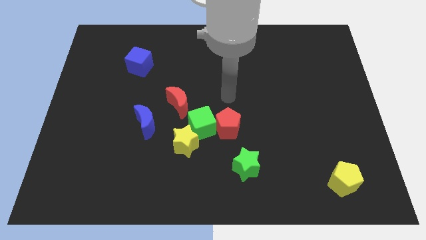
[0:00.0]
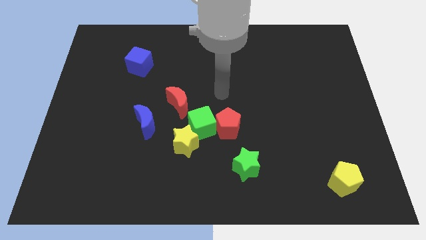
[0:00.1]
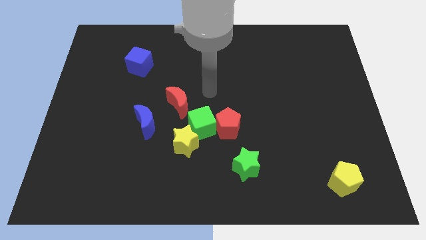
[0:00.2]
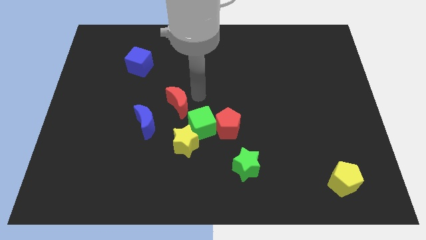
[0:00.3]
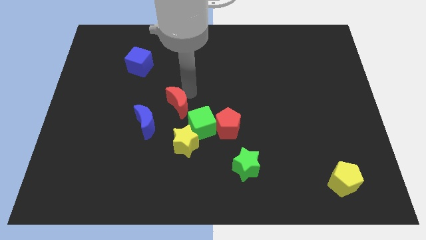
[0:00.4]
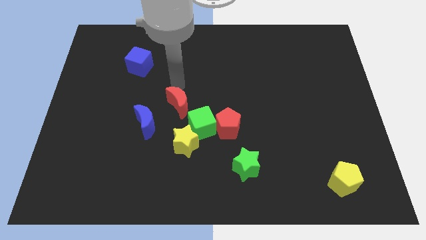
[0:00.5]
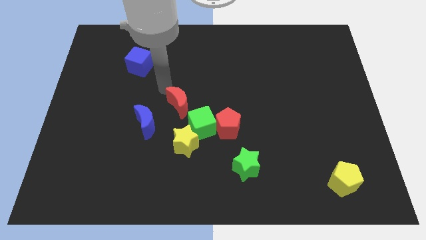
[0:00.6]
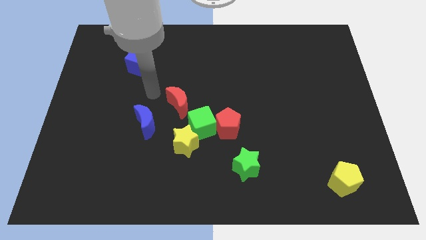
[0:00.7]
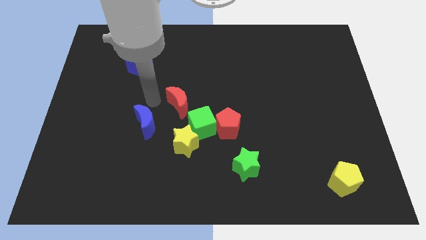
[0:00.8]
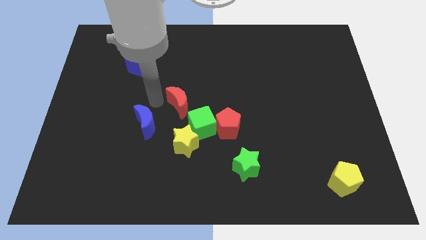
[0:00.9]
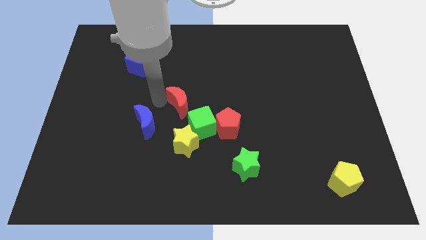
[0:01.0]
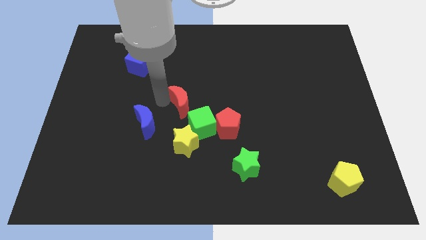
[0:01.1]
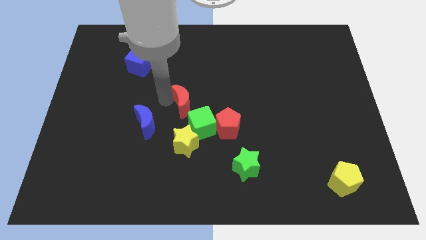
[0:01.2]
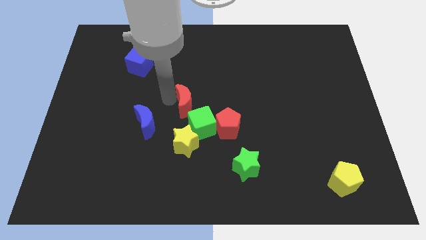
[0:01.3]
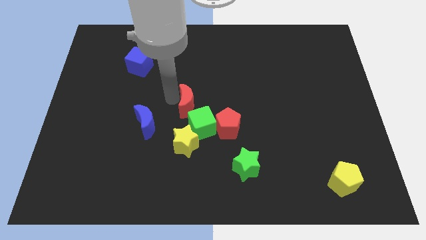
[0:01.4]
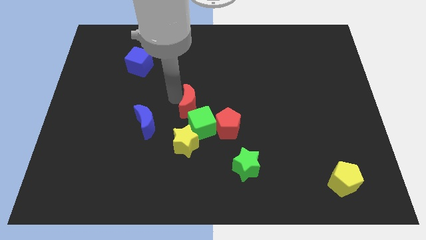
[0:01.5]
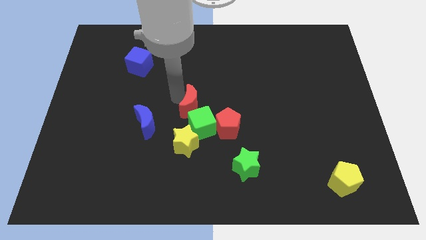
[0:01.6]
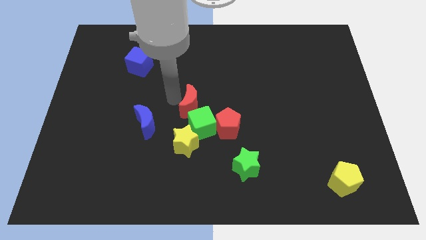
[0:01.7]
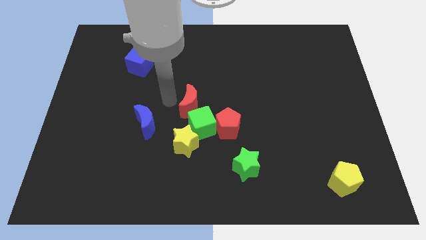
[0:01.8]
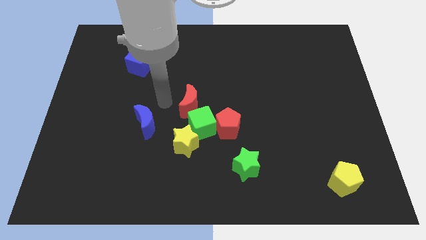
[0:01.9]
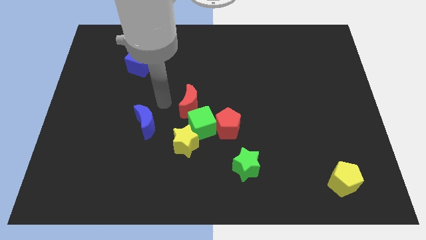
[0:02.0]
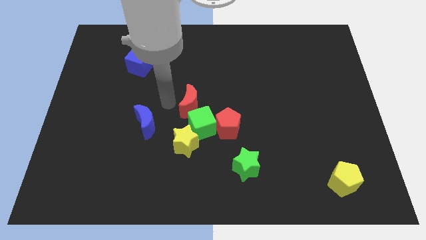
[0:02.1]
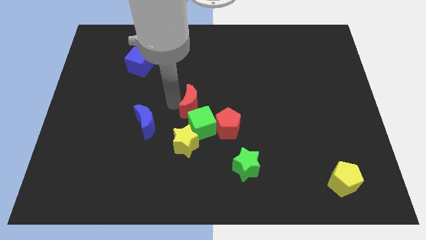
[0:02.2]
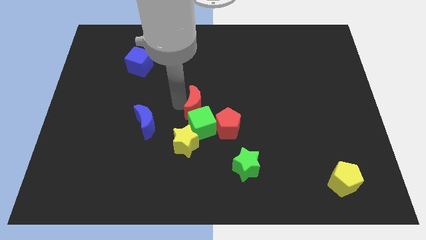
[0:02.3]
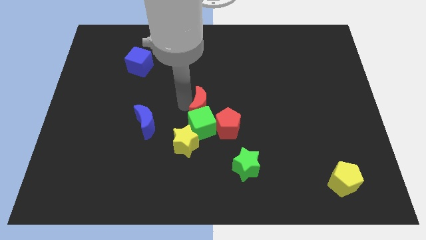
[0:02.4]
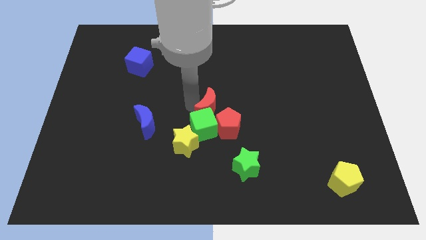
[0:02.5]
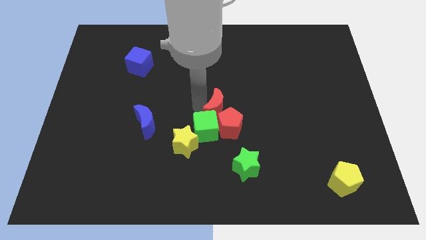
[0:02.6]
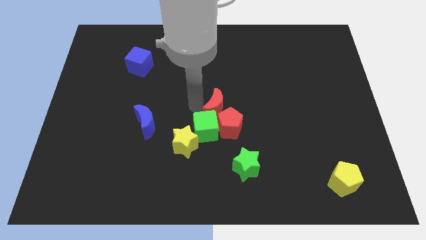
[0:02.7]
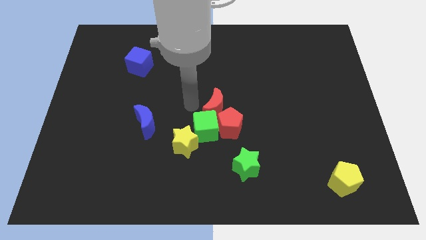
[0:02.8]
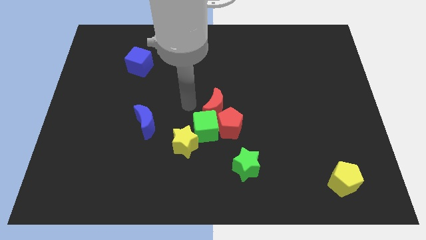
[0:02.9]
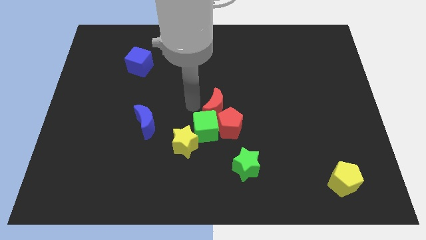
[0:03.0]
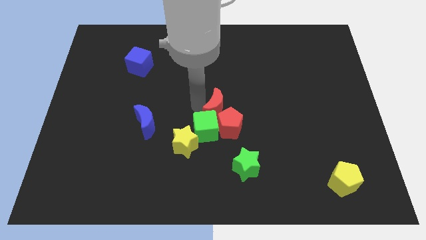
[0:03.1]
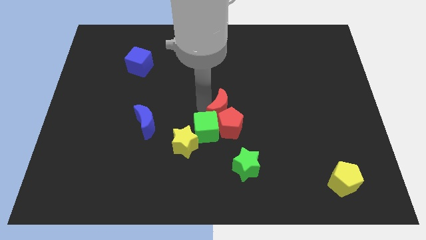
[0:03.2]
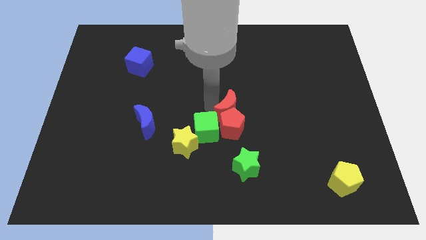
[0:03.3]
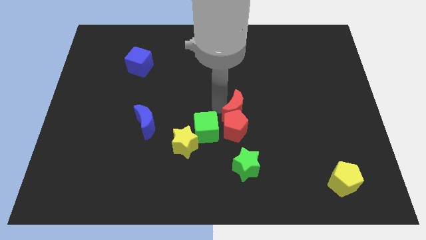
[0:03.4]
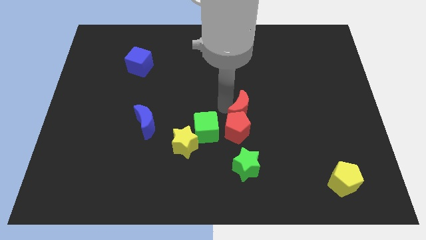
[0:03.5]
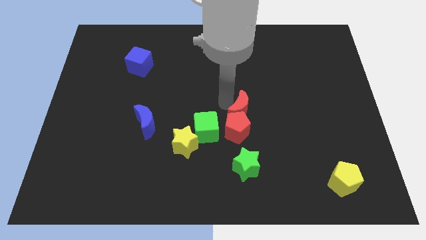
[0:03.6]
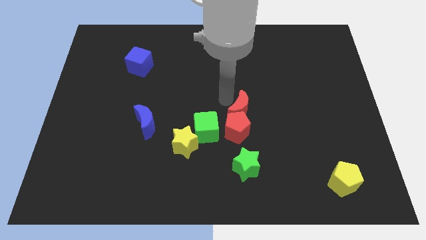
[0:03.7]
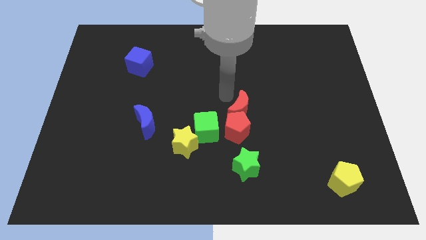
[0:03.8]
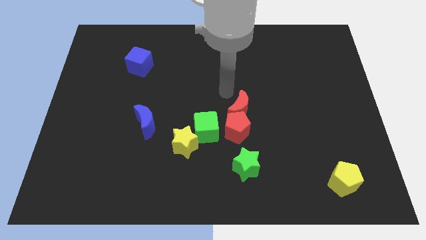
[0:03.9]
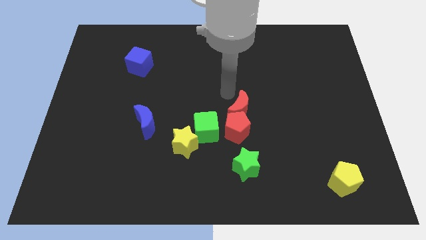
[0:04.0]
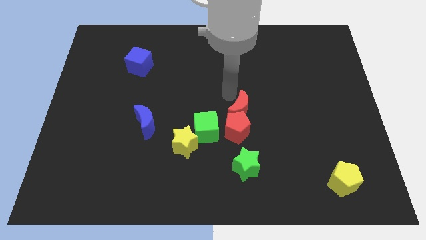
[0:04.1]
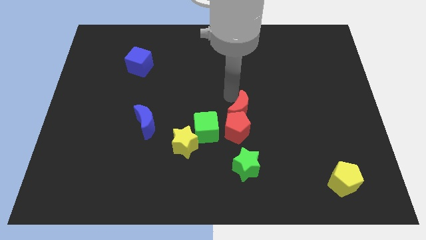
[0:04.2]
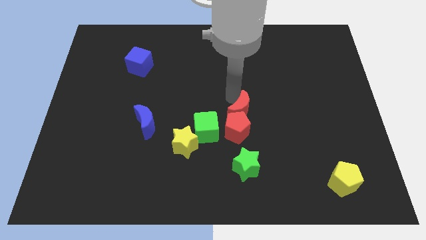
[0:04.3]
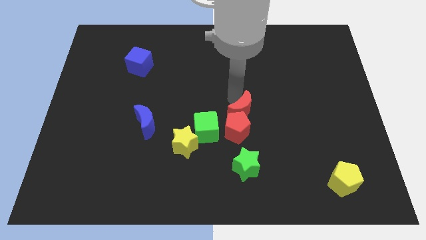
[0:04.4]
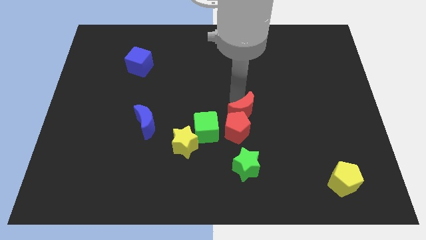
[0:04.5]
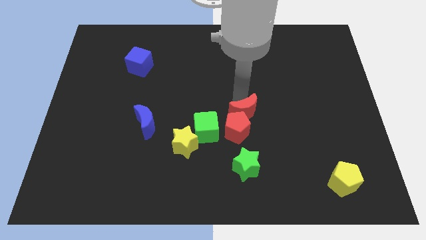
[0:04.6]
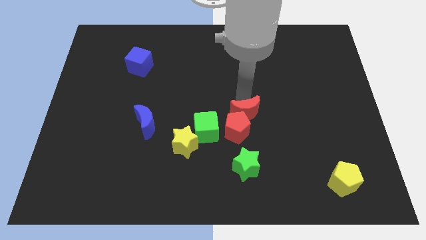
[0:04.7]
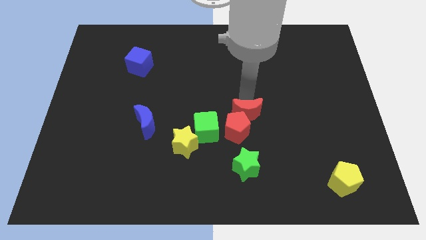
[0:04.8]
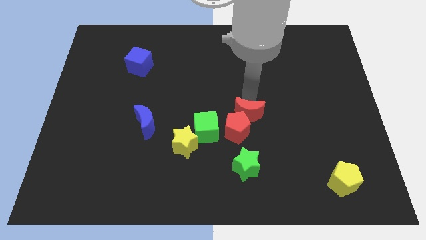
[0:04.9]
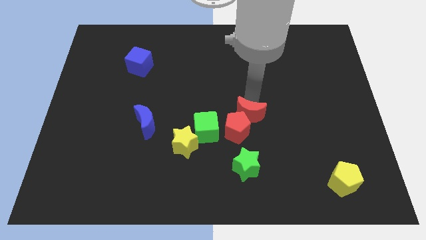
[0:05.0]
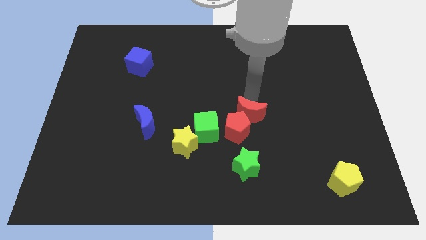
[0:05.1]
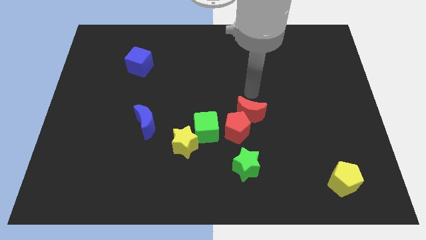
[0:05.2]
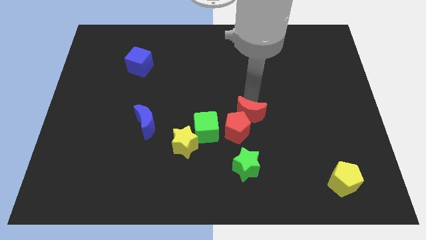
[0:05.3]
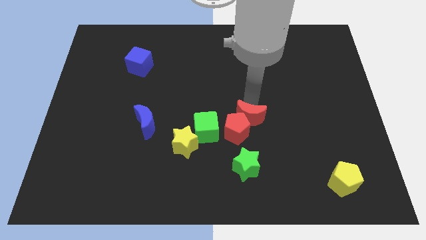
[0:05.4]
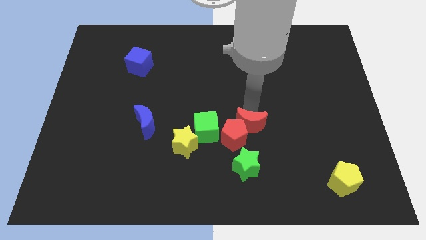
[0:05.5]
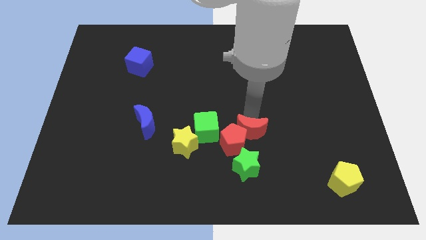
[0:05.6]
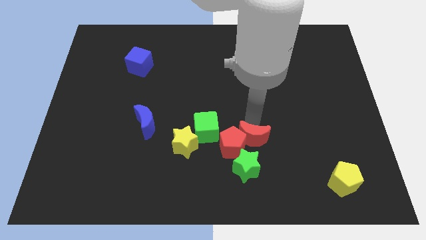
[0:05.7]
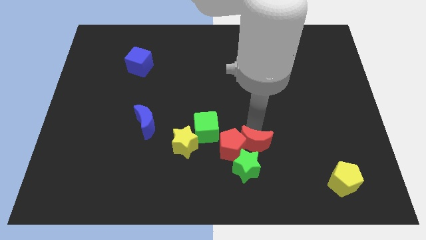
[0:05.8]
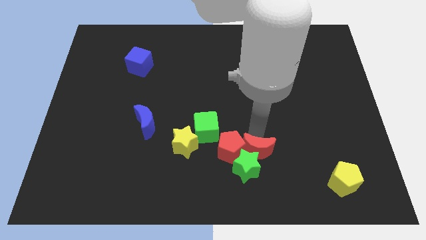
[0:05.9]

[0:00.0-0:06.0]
push the red moon towards the green star

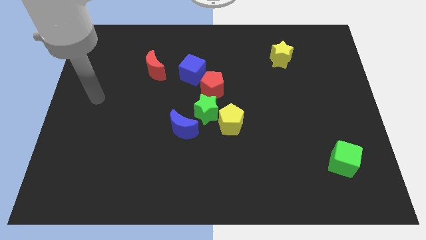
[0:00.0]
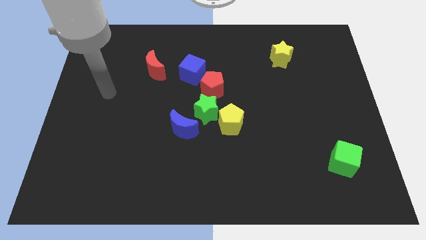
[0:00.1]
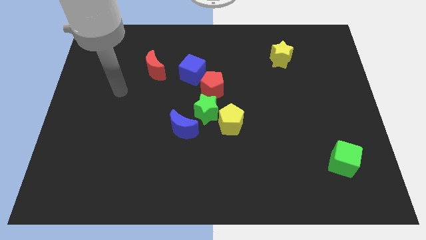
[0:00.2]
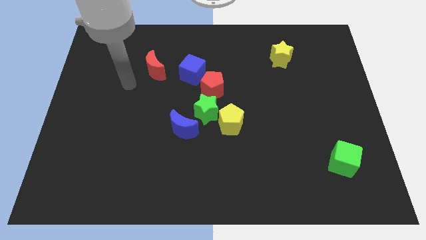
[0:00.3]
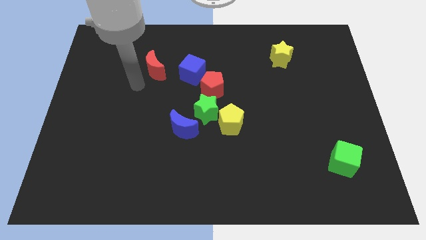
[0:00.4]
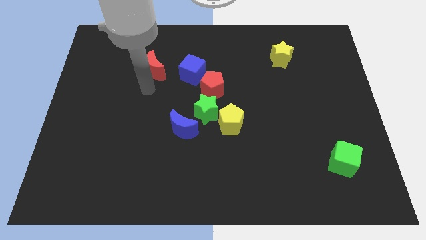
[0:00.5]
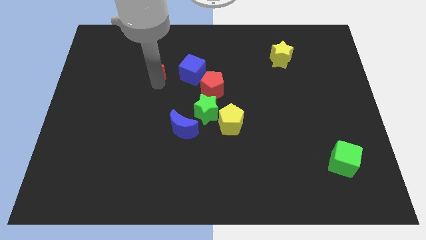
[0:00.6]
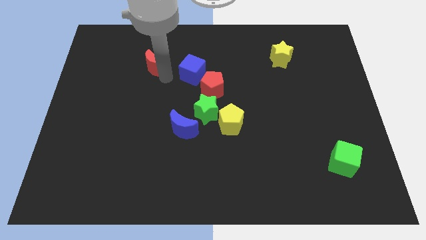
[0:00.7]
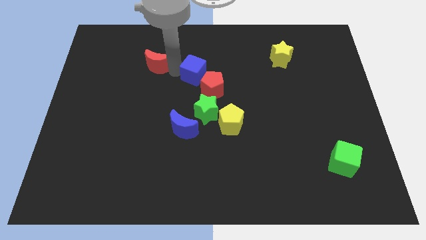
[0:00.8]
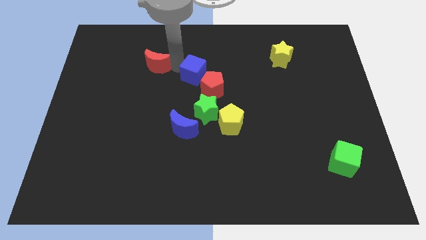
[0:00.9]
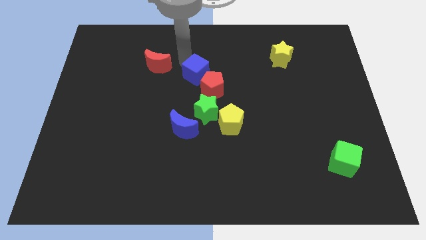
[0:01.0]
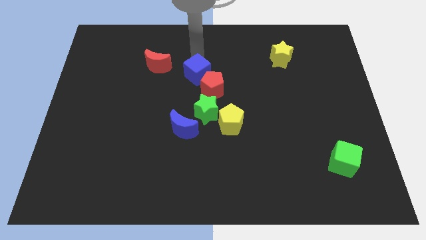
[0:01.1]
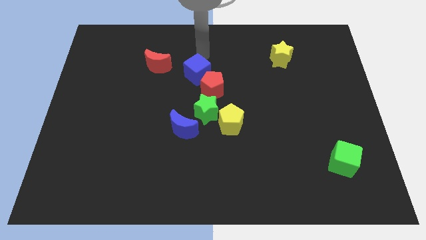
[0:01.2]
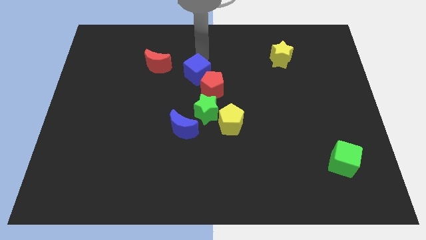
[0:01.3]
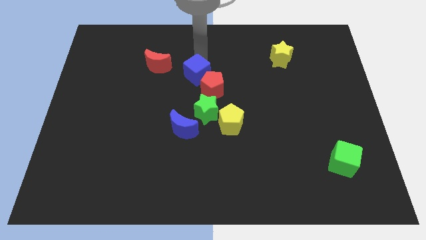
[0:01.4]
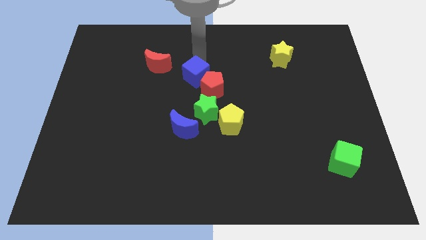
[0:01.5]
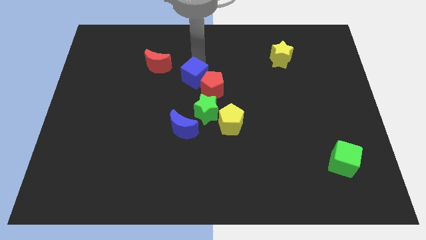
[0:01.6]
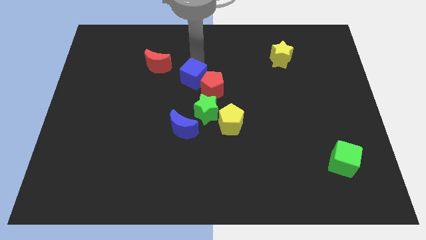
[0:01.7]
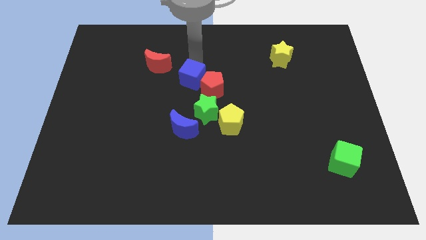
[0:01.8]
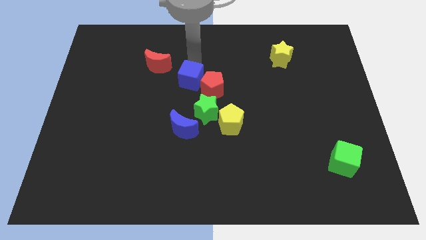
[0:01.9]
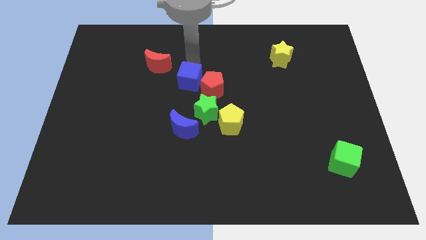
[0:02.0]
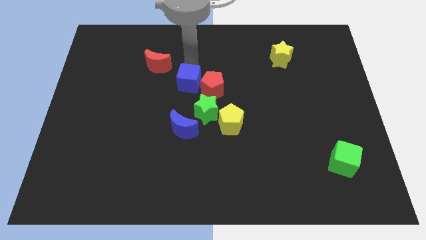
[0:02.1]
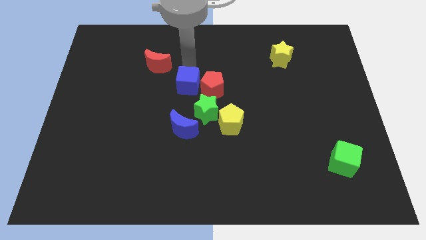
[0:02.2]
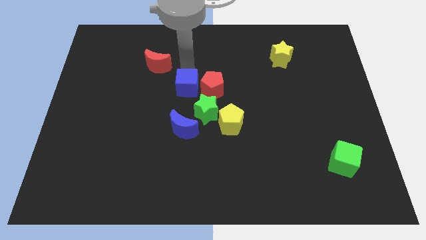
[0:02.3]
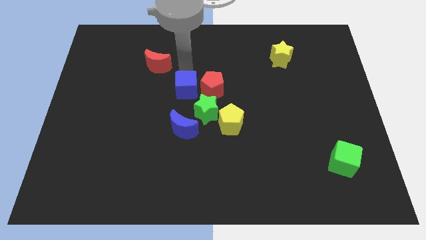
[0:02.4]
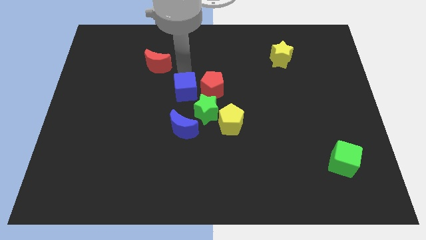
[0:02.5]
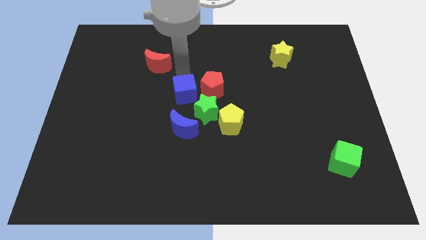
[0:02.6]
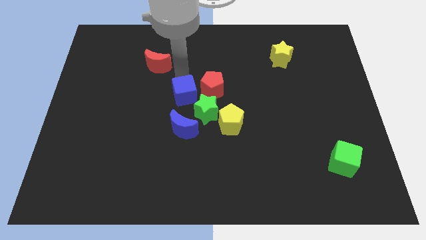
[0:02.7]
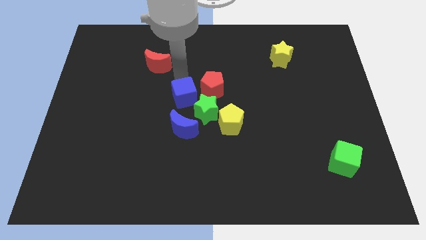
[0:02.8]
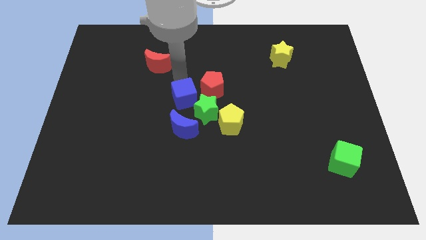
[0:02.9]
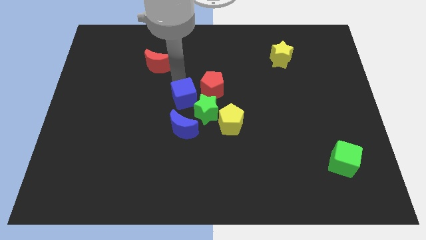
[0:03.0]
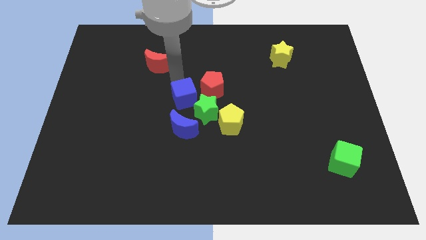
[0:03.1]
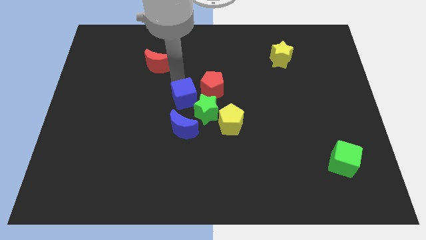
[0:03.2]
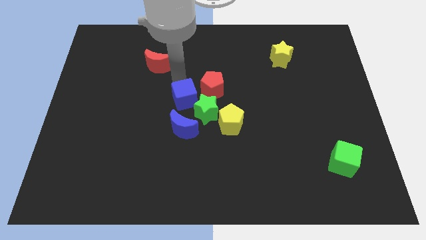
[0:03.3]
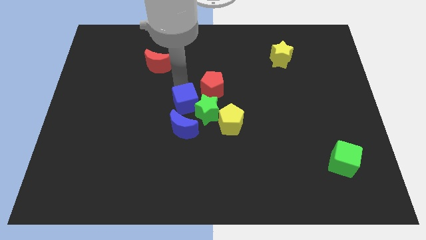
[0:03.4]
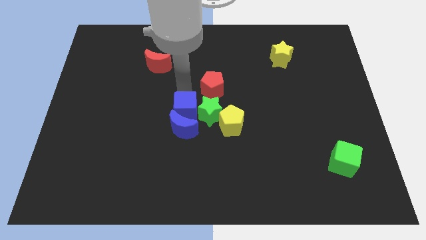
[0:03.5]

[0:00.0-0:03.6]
slide the blue cube close to the blue moon
